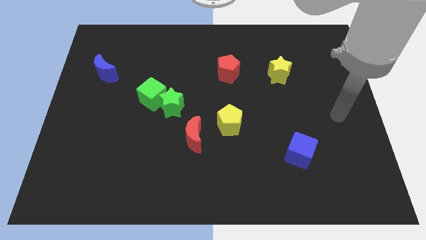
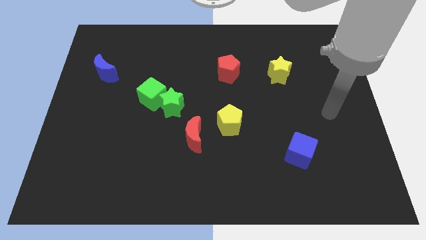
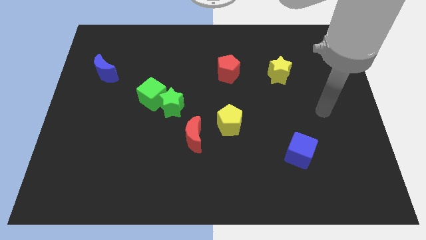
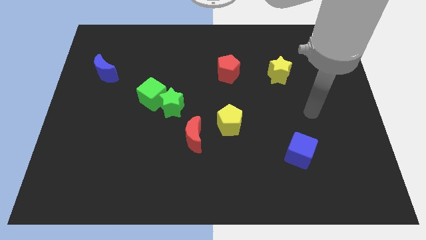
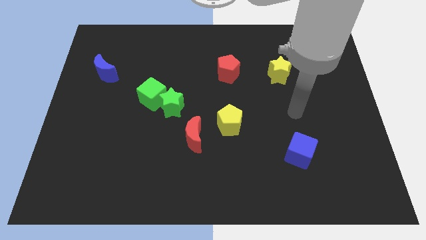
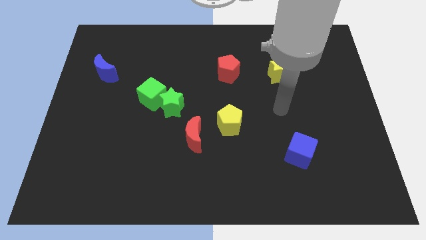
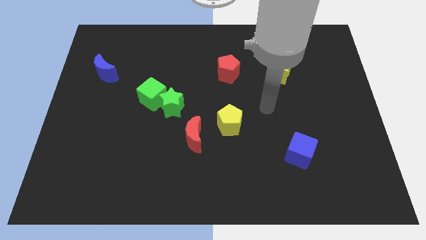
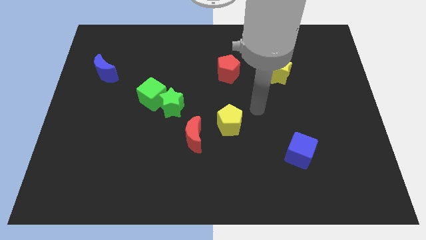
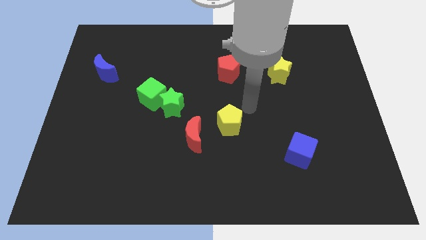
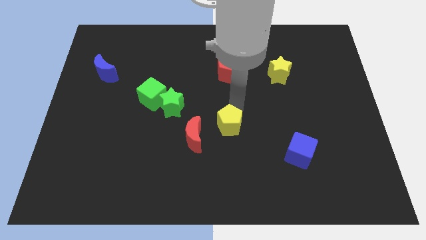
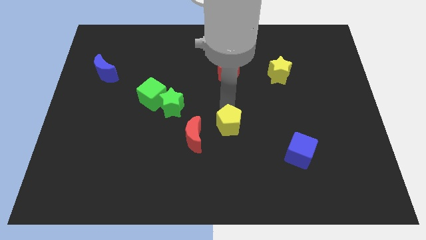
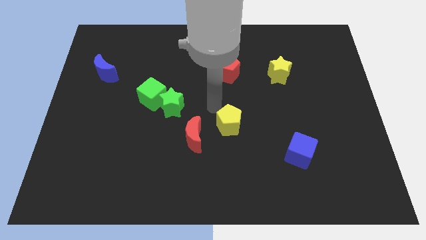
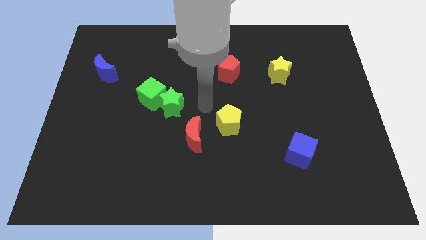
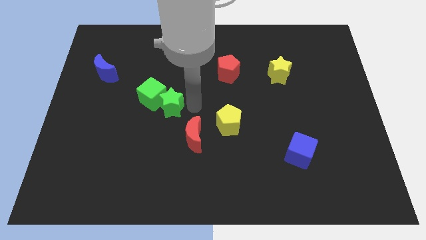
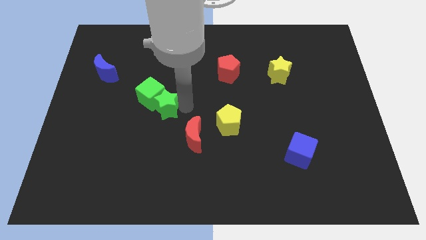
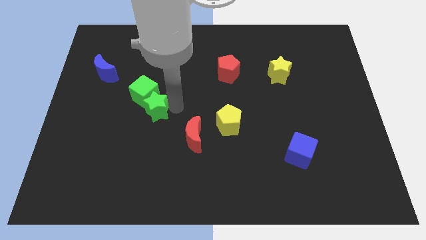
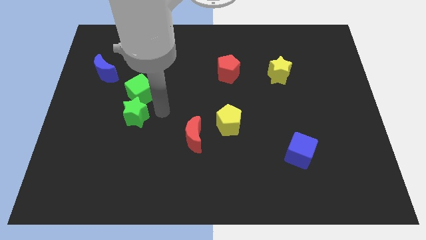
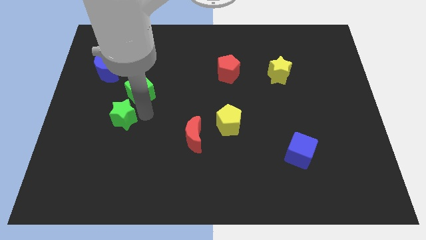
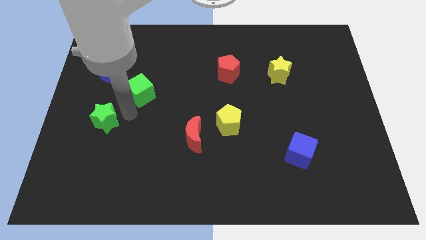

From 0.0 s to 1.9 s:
move the green cube away from the green star

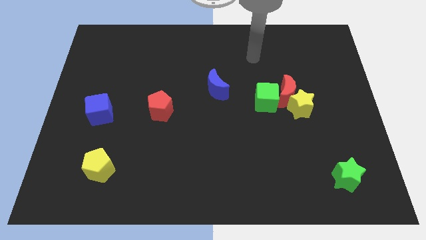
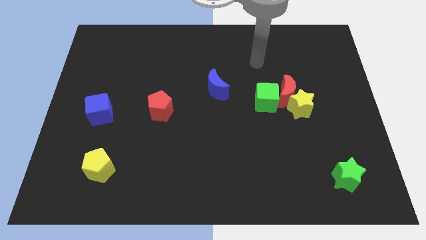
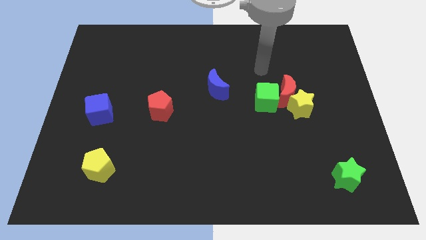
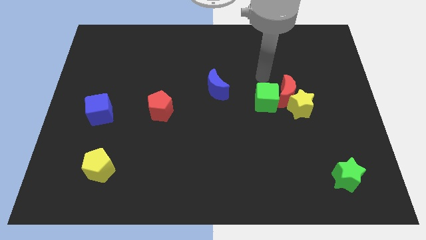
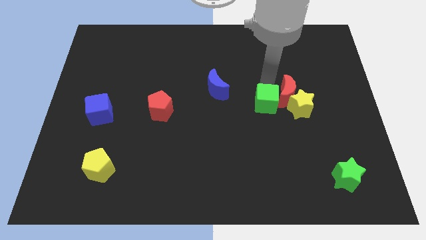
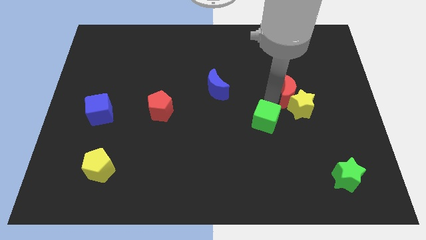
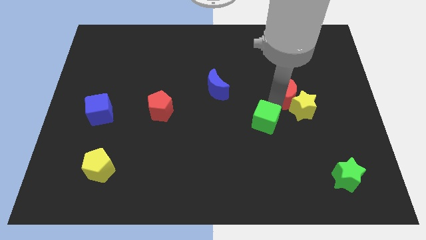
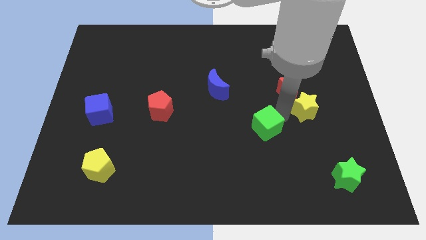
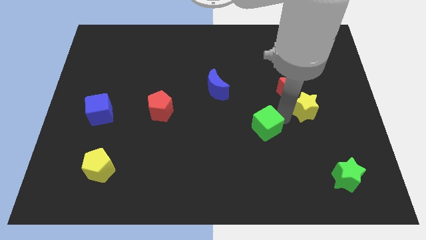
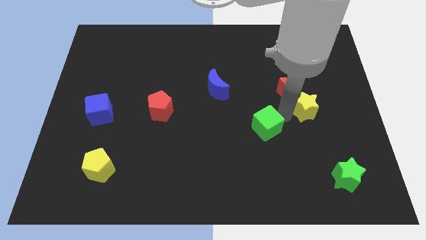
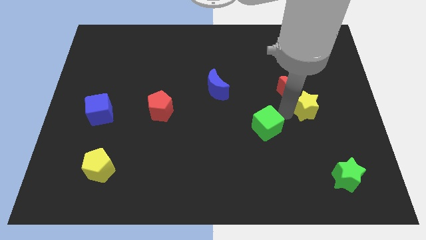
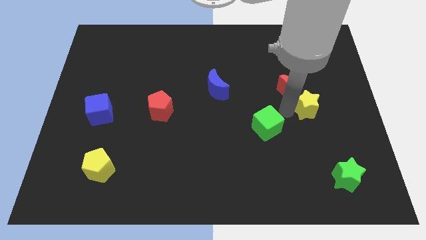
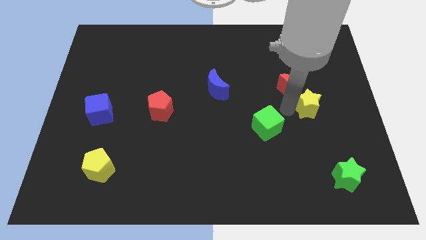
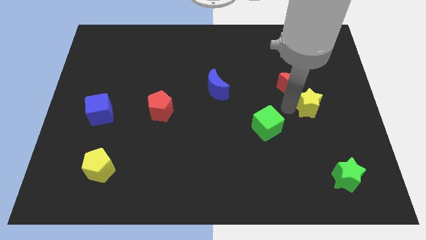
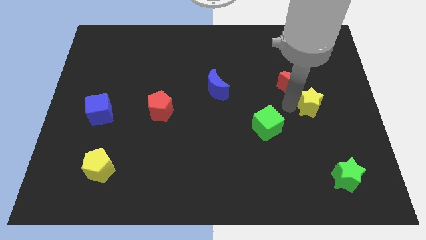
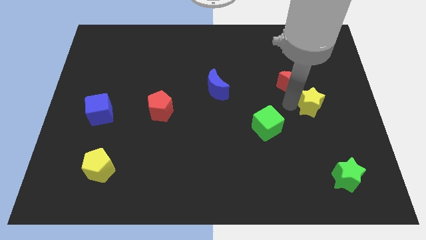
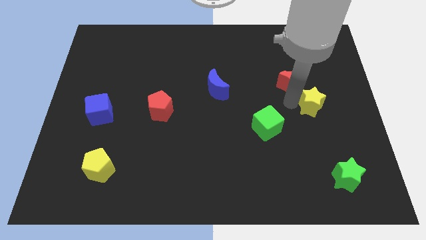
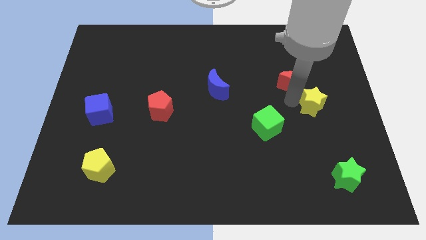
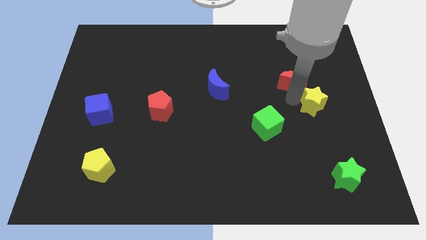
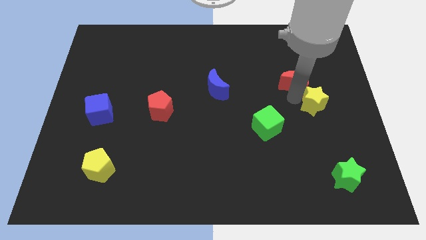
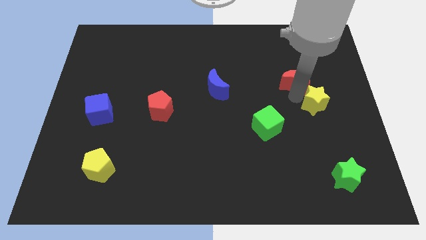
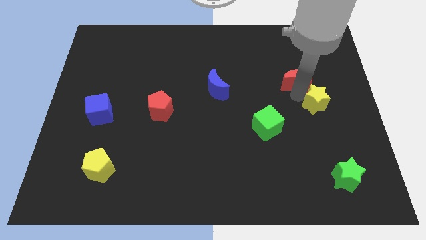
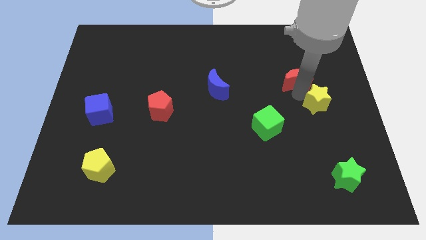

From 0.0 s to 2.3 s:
move the red moon away from the yellow star and green cube

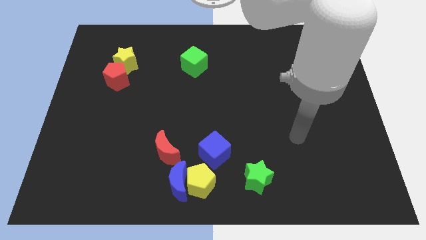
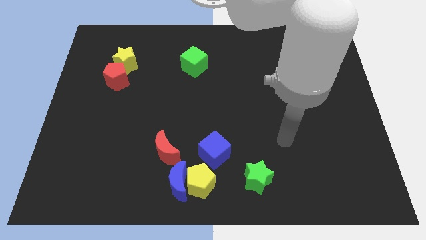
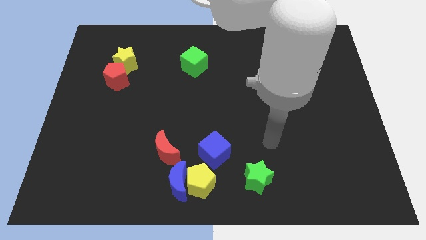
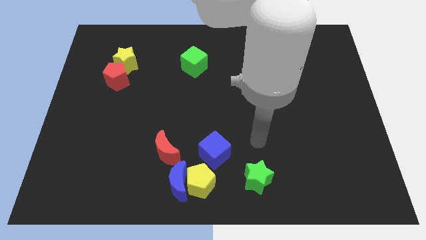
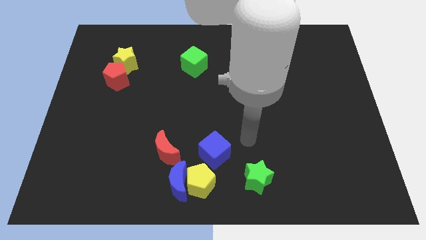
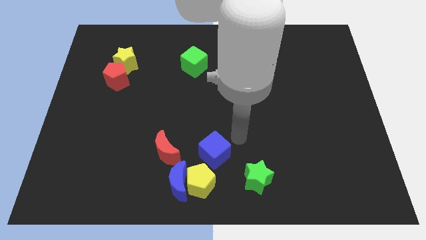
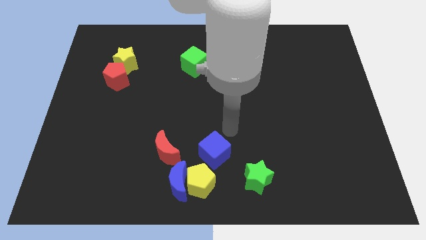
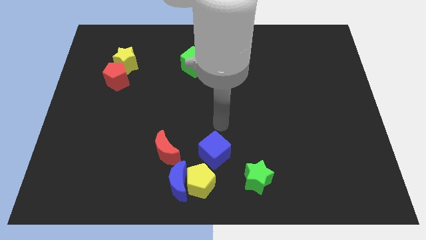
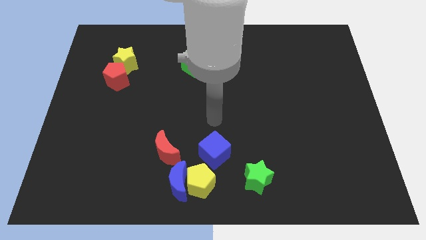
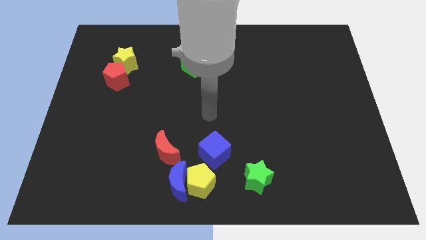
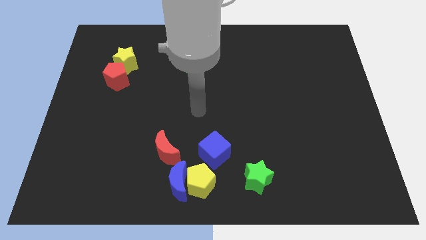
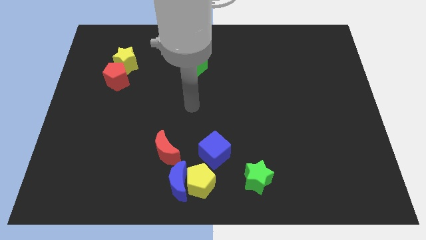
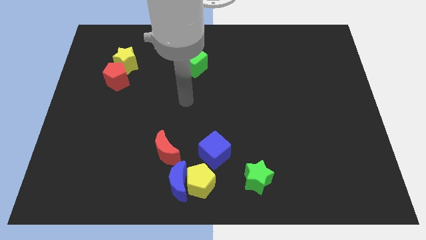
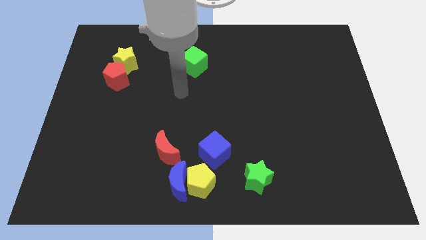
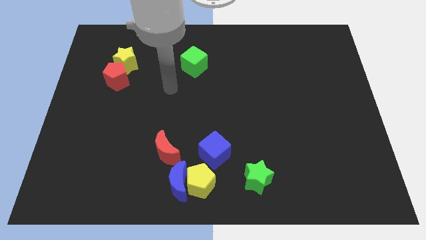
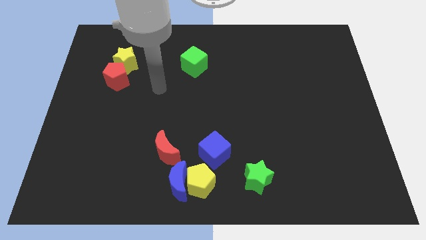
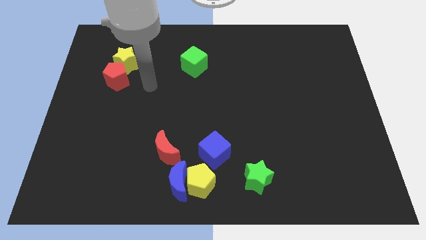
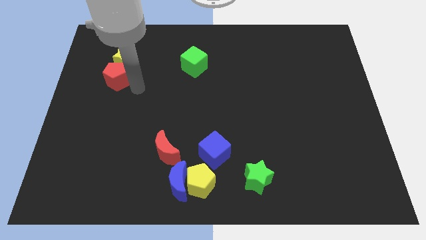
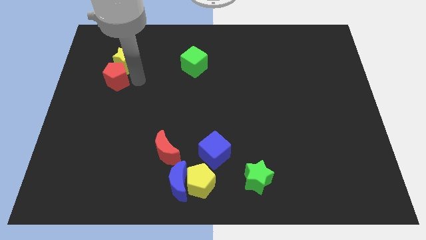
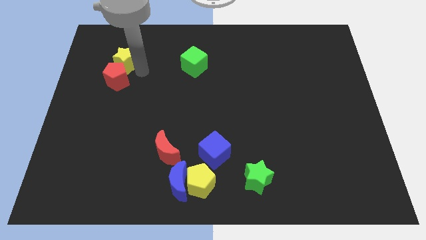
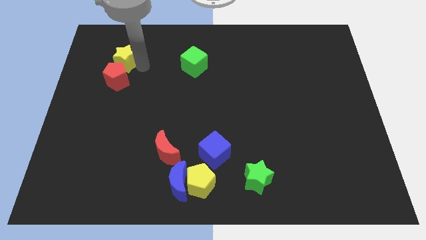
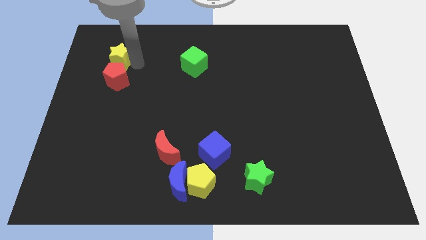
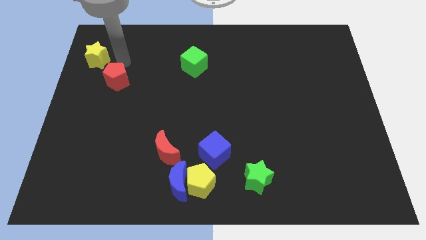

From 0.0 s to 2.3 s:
pull the red pentagon apart from the yellow star

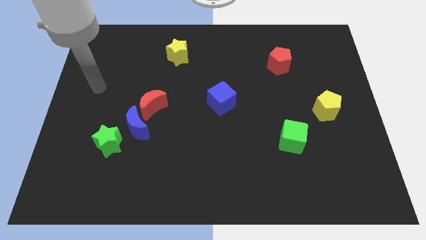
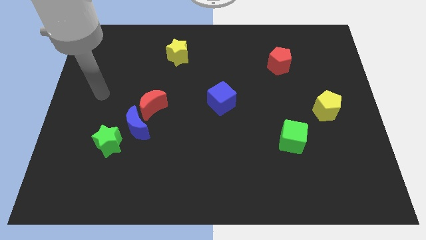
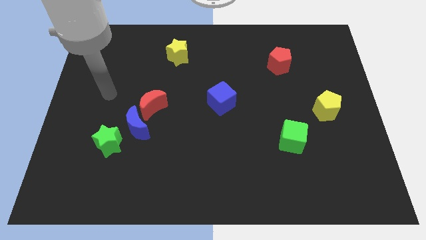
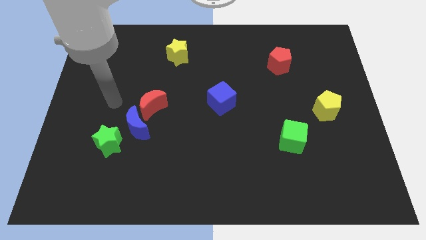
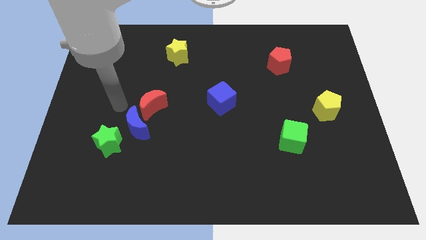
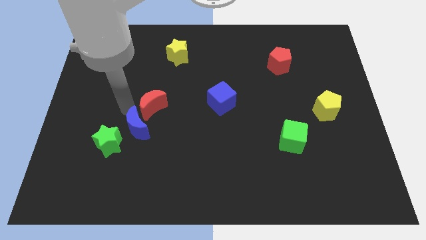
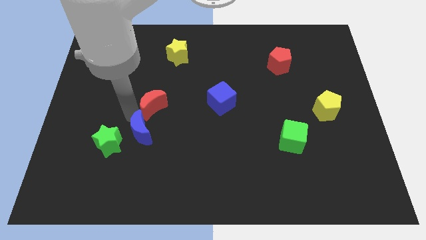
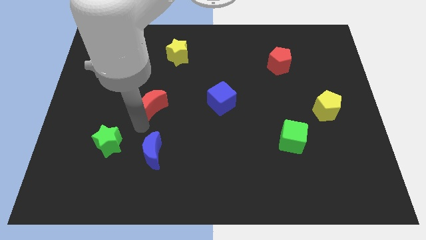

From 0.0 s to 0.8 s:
move the red moon away from the blue moon

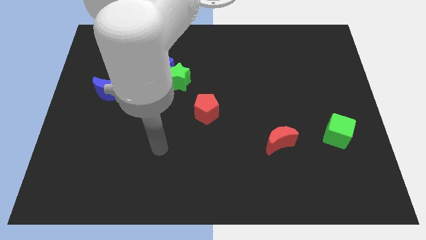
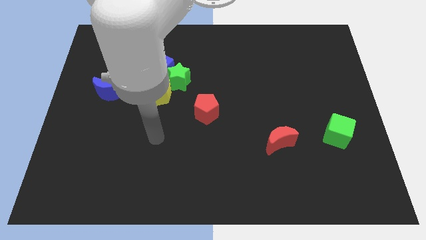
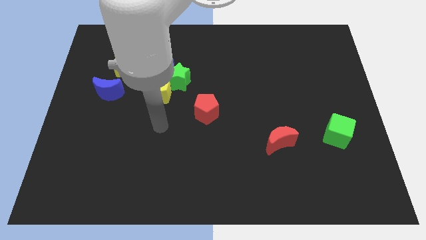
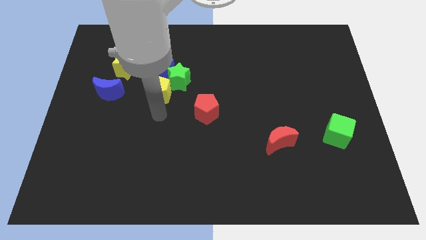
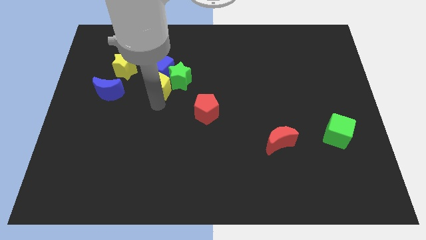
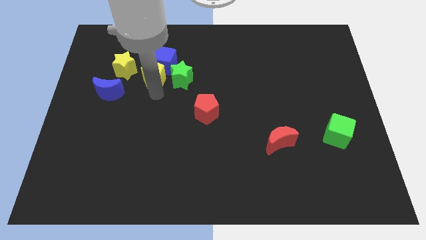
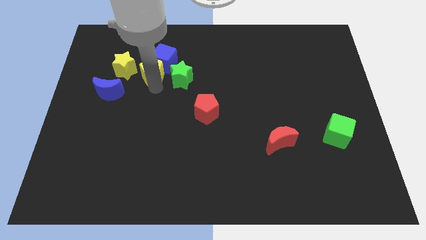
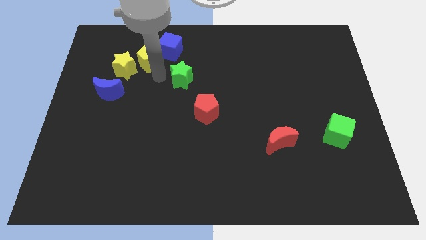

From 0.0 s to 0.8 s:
move the green star away from the blue cube and yellow pentagon

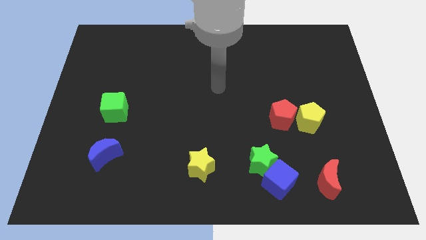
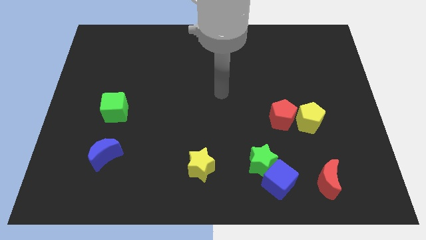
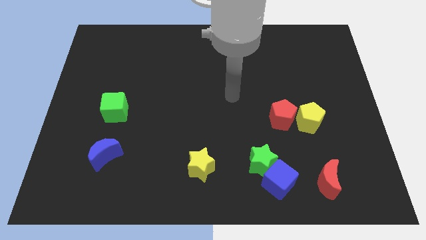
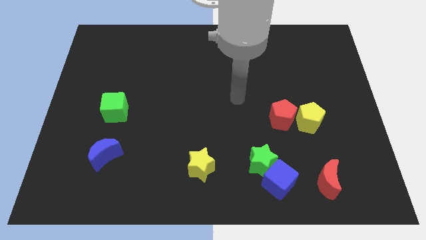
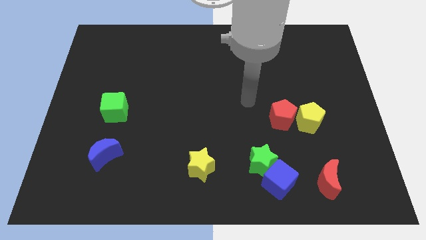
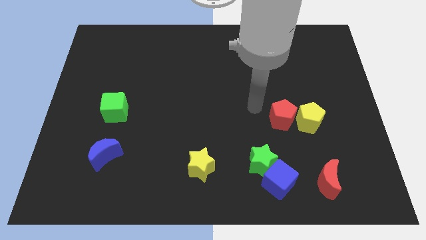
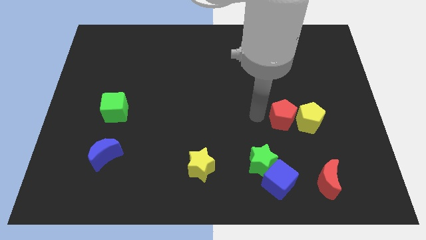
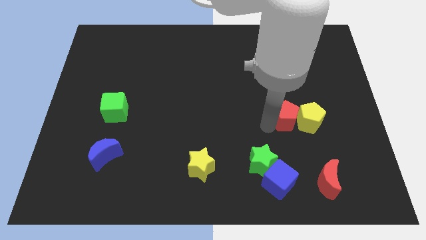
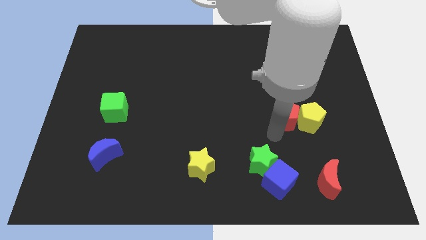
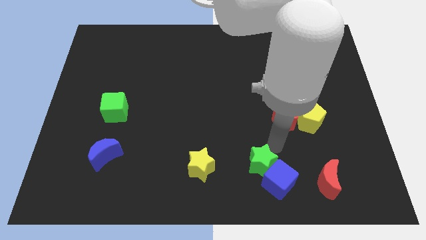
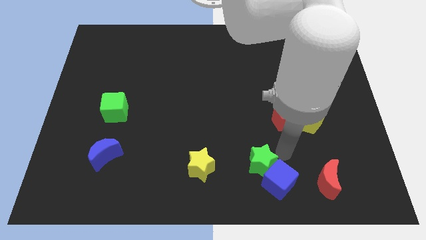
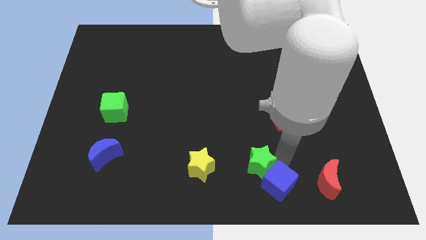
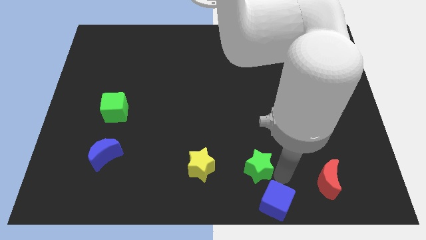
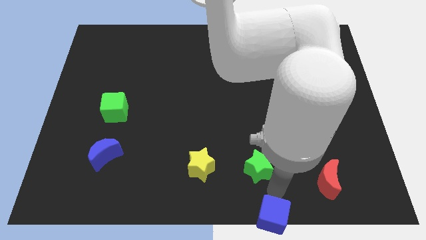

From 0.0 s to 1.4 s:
move the green star away from the blue cube
